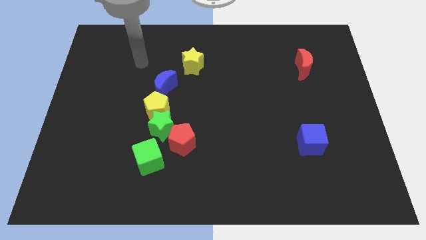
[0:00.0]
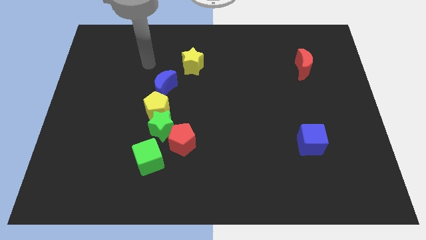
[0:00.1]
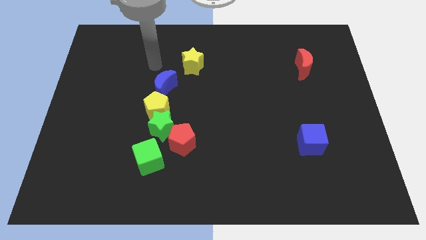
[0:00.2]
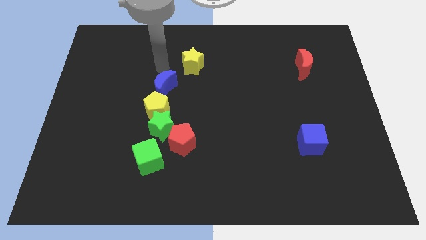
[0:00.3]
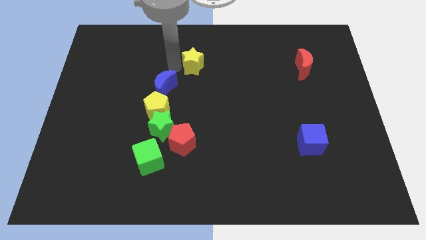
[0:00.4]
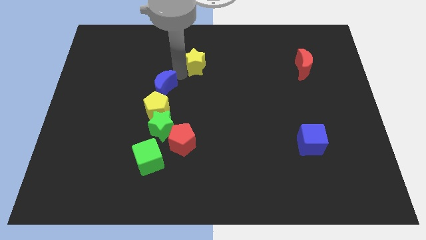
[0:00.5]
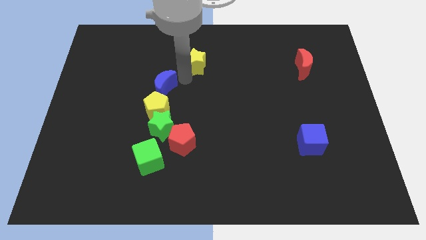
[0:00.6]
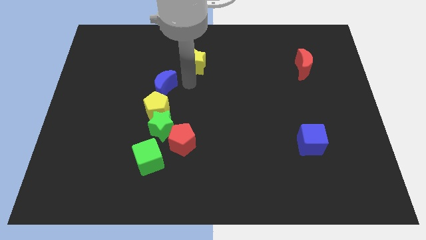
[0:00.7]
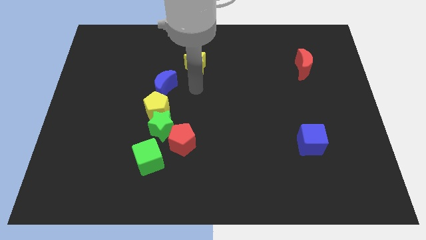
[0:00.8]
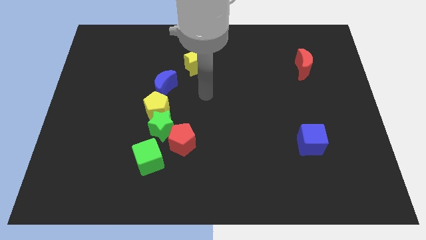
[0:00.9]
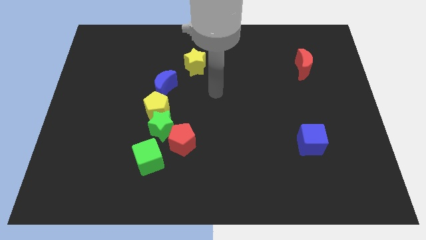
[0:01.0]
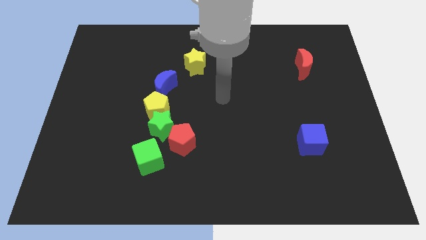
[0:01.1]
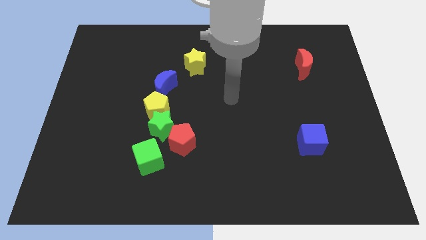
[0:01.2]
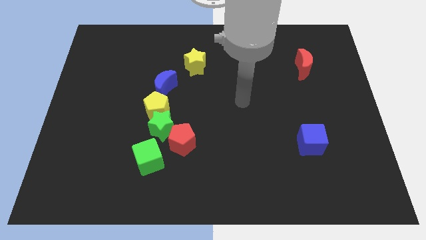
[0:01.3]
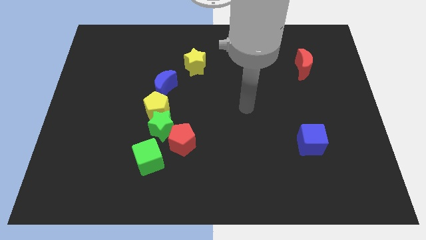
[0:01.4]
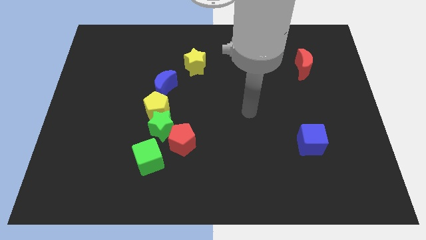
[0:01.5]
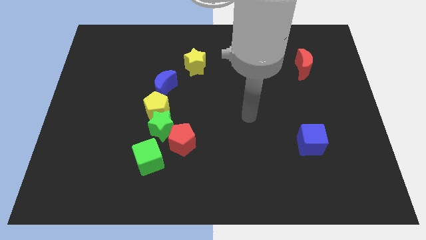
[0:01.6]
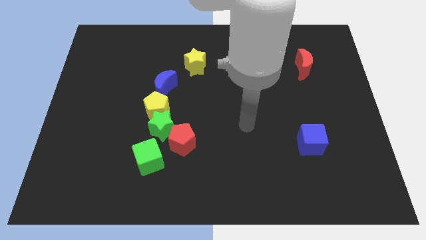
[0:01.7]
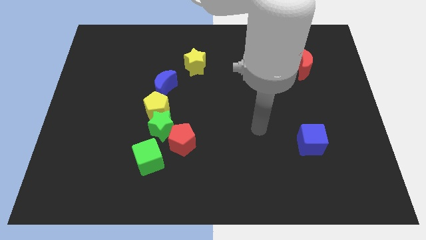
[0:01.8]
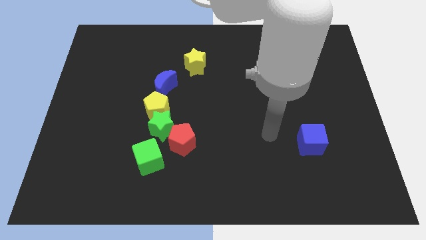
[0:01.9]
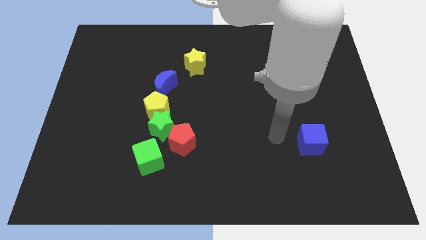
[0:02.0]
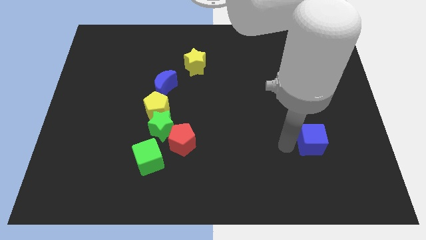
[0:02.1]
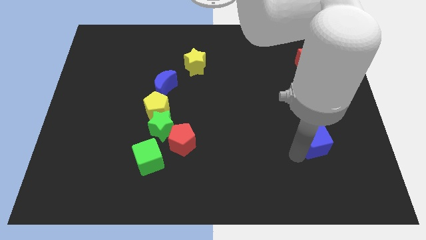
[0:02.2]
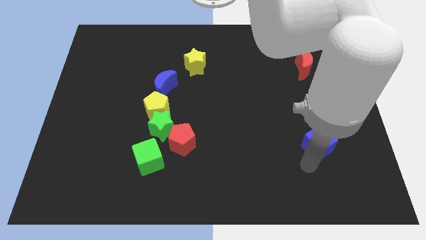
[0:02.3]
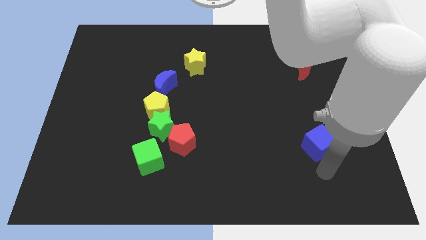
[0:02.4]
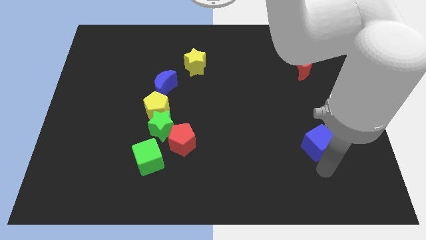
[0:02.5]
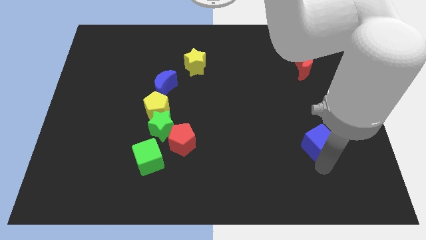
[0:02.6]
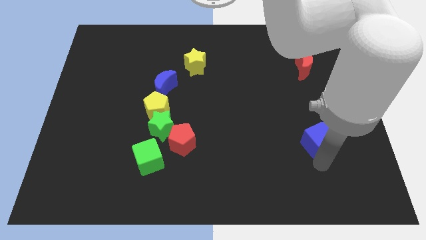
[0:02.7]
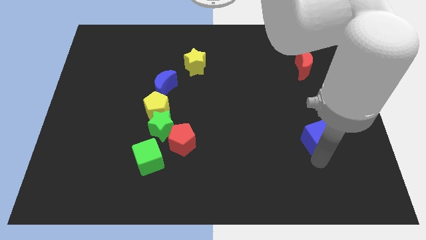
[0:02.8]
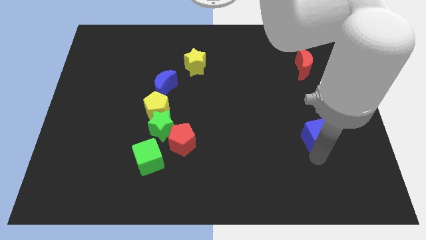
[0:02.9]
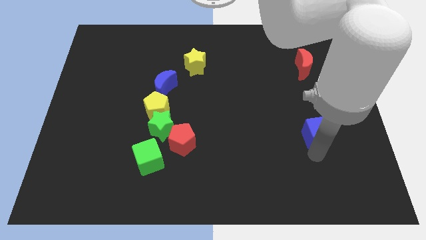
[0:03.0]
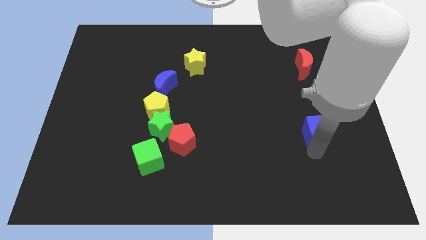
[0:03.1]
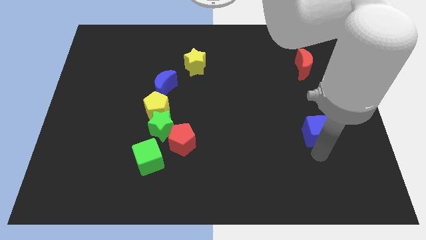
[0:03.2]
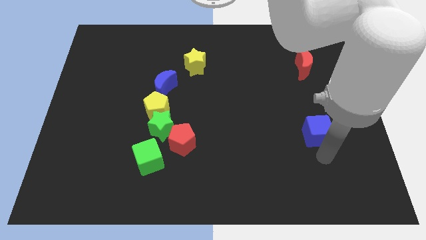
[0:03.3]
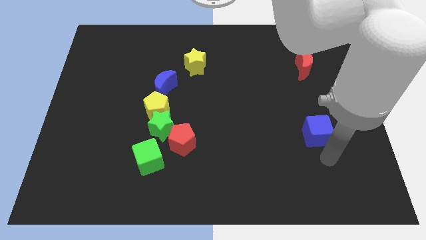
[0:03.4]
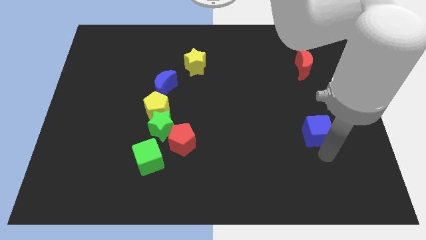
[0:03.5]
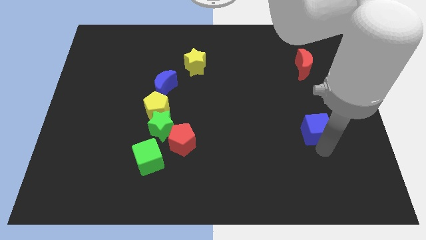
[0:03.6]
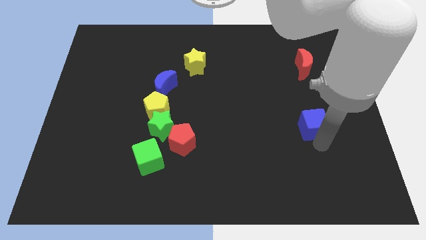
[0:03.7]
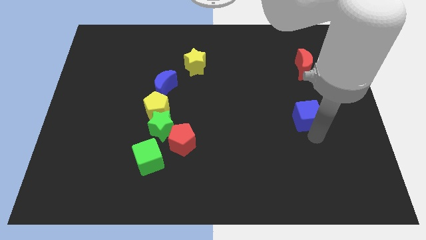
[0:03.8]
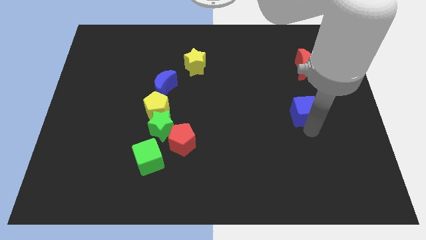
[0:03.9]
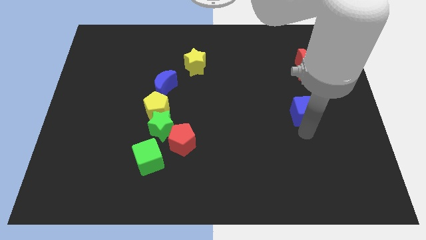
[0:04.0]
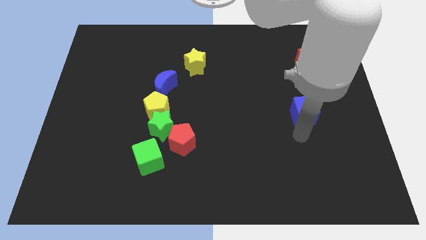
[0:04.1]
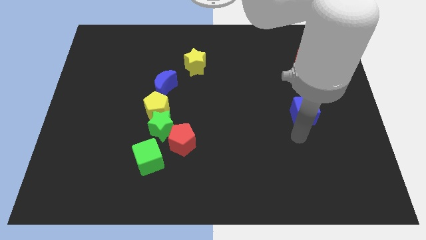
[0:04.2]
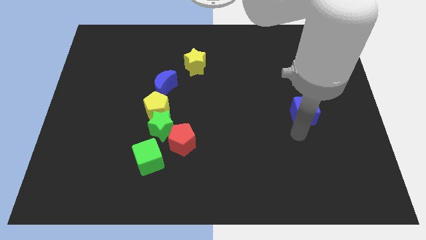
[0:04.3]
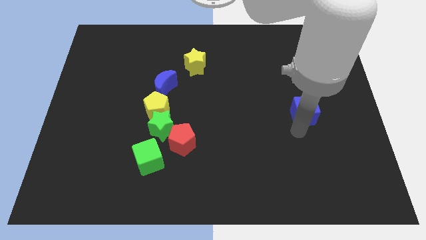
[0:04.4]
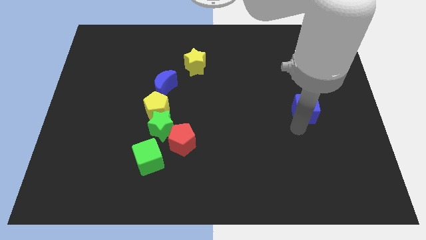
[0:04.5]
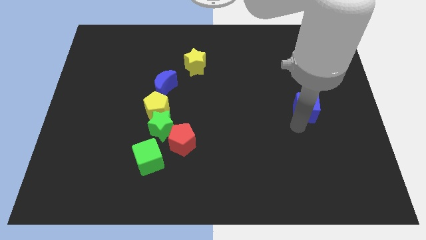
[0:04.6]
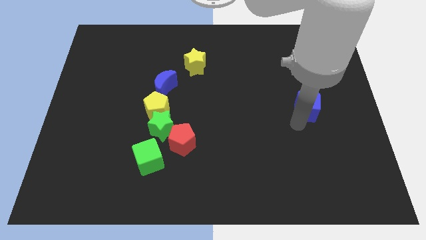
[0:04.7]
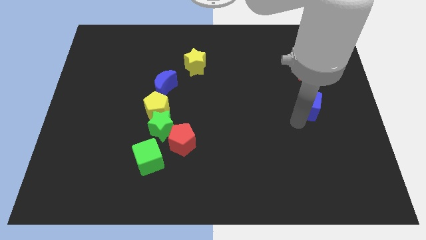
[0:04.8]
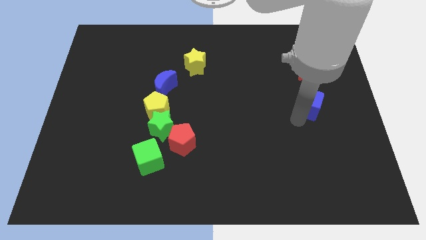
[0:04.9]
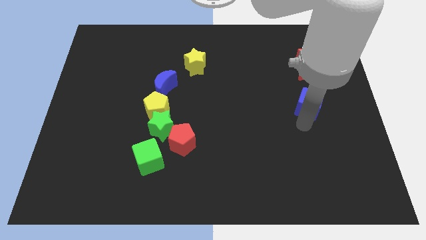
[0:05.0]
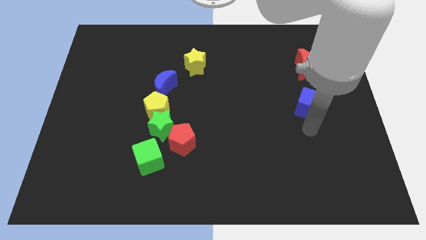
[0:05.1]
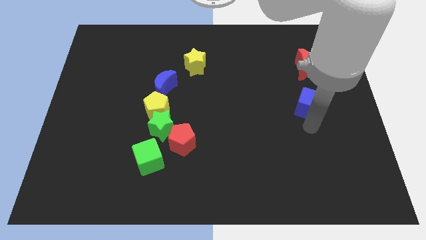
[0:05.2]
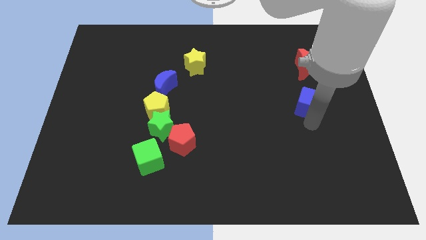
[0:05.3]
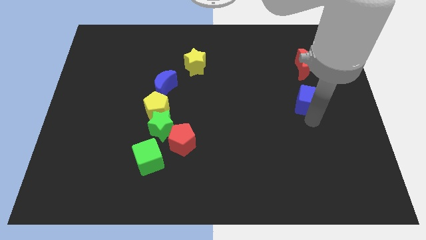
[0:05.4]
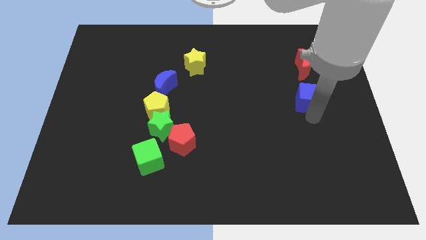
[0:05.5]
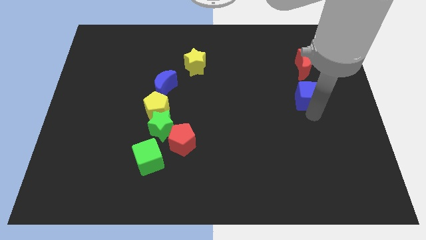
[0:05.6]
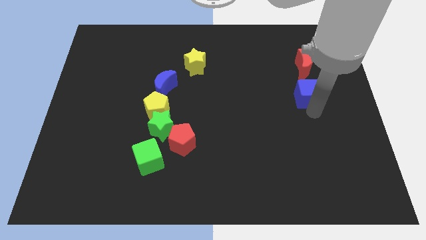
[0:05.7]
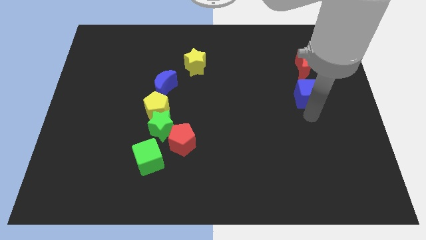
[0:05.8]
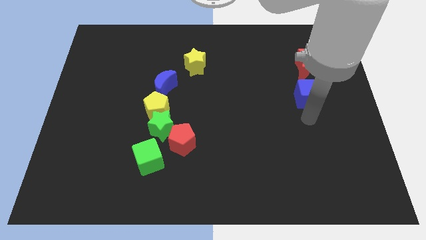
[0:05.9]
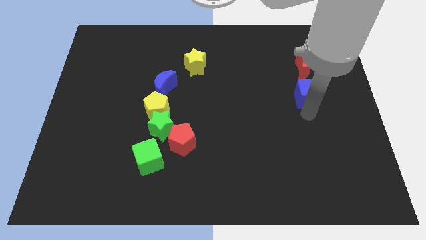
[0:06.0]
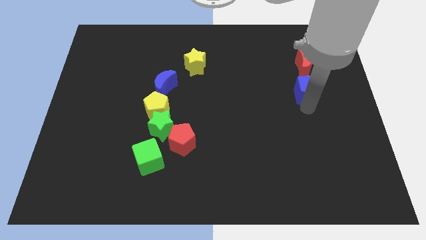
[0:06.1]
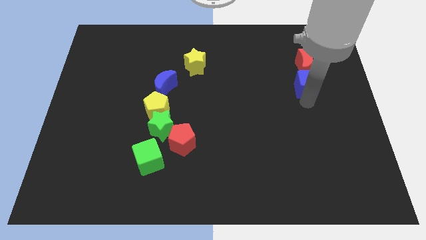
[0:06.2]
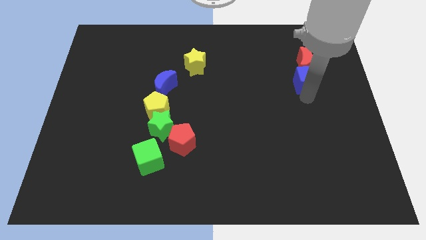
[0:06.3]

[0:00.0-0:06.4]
move the blue cube to the red moon
